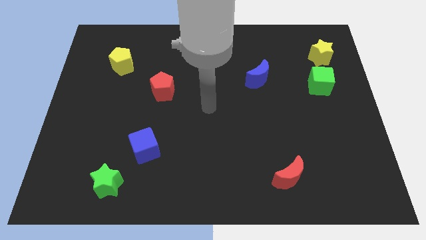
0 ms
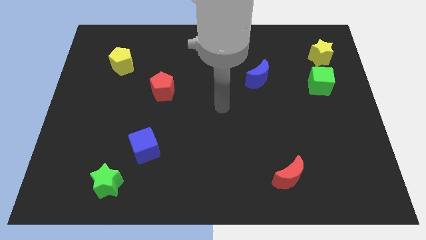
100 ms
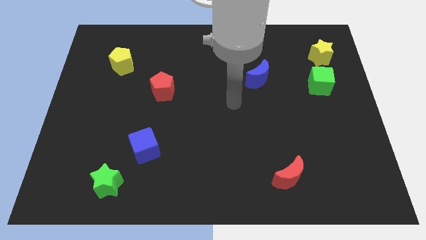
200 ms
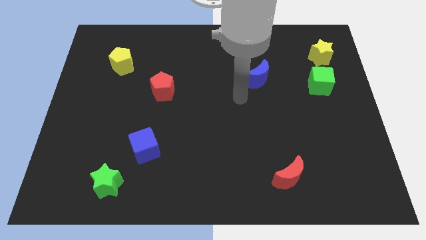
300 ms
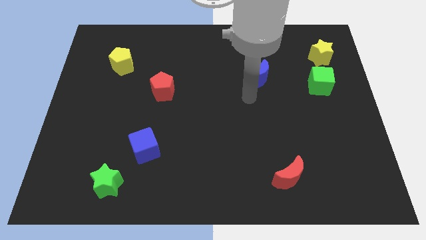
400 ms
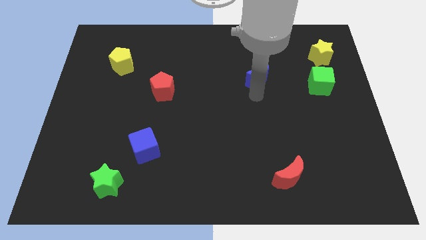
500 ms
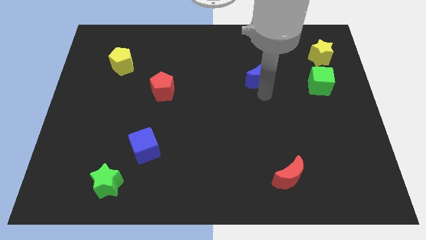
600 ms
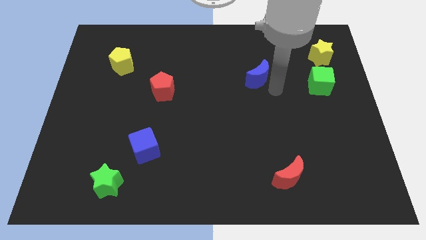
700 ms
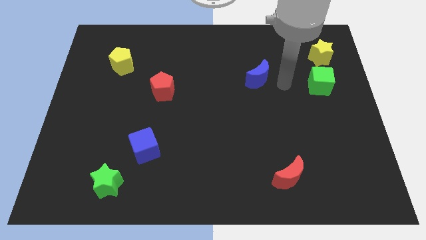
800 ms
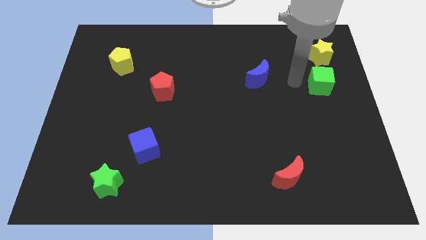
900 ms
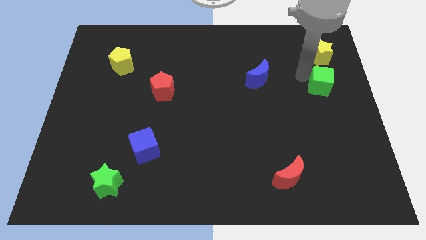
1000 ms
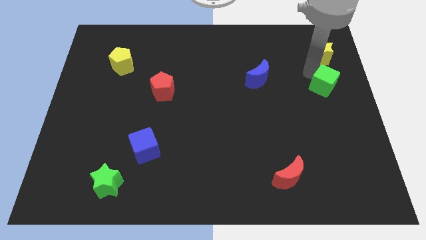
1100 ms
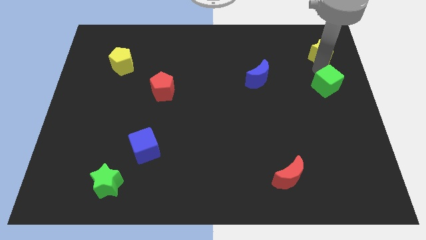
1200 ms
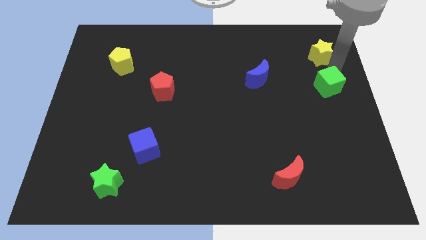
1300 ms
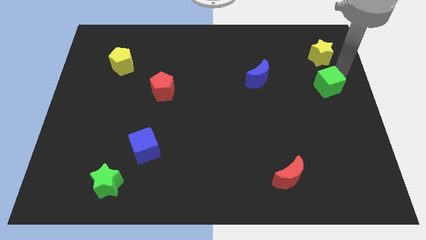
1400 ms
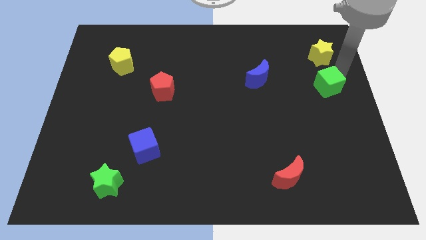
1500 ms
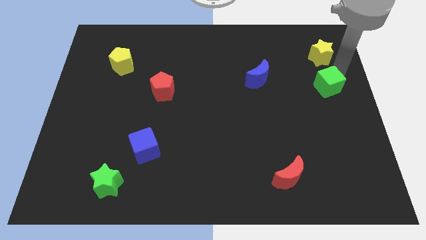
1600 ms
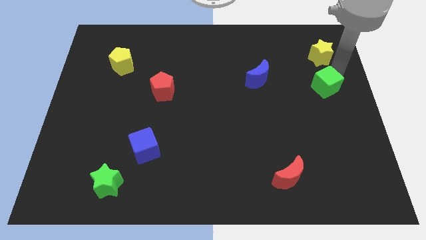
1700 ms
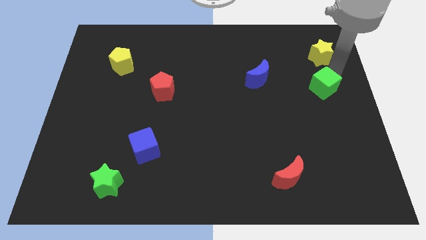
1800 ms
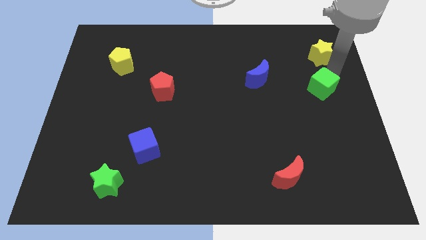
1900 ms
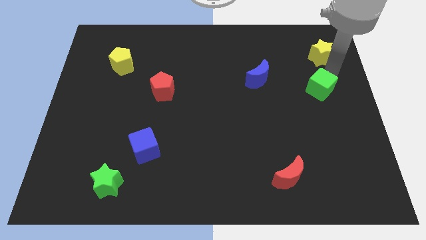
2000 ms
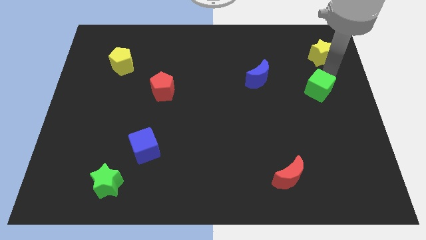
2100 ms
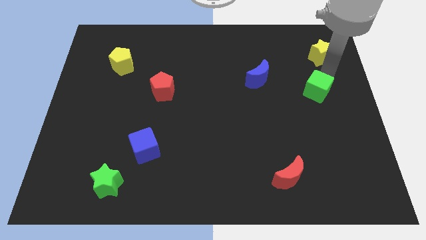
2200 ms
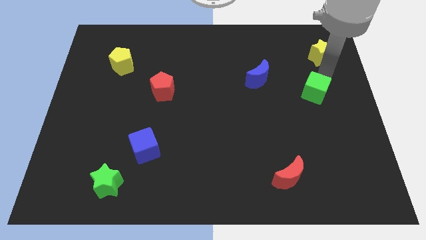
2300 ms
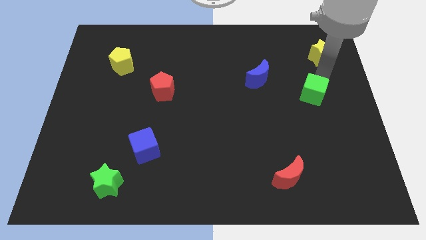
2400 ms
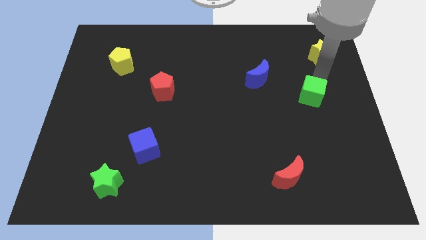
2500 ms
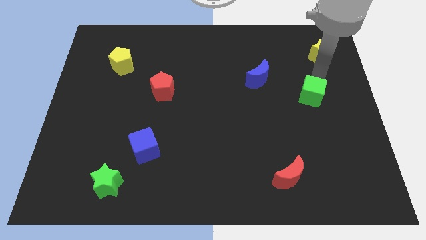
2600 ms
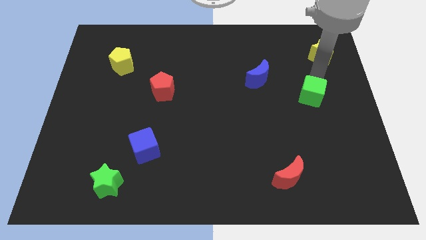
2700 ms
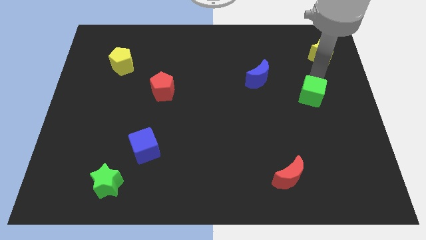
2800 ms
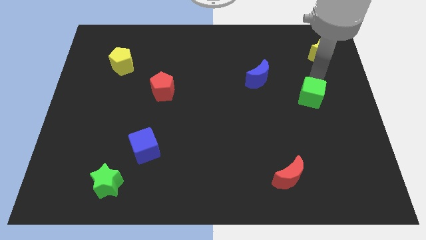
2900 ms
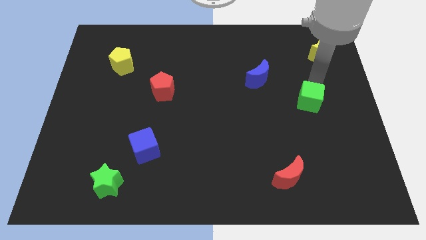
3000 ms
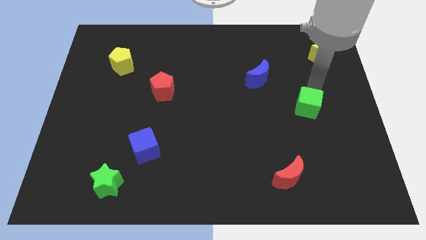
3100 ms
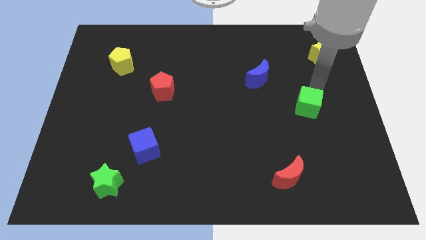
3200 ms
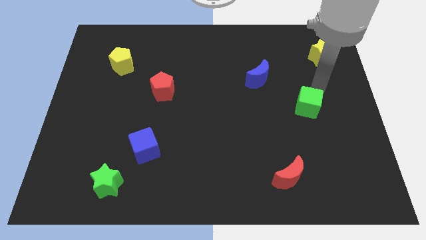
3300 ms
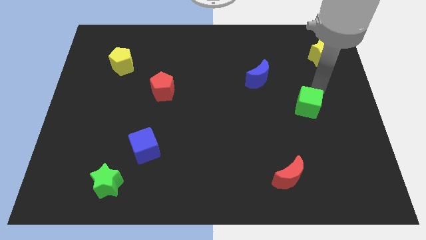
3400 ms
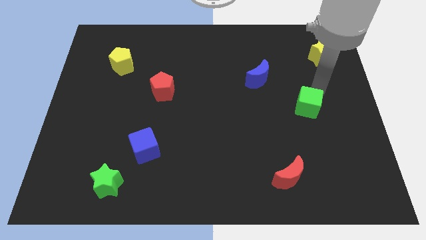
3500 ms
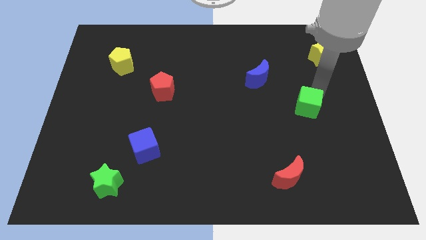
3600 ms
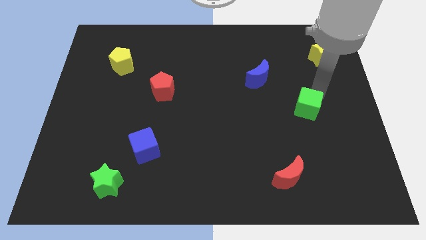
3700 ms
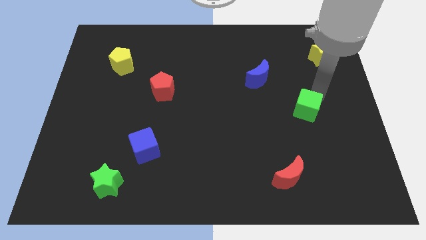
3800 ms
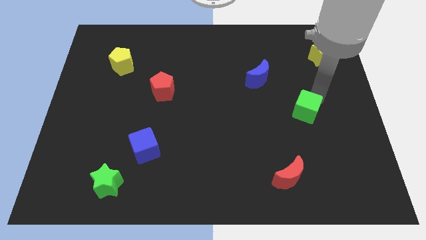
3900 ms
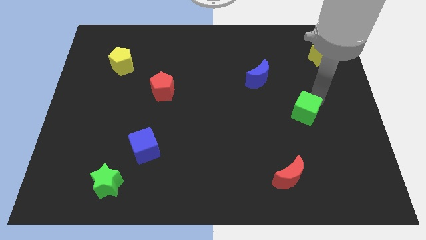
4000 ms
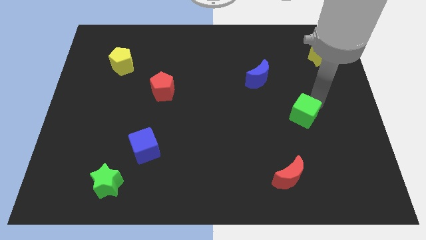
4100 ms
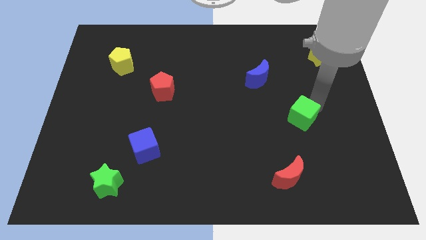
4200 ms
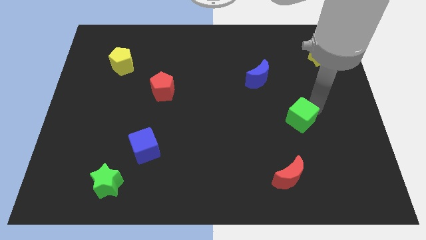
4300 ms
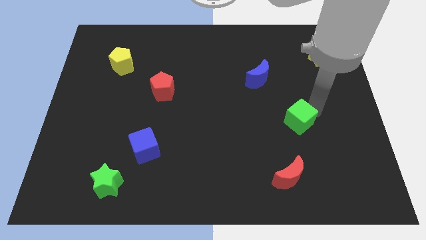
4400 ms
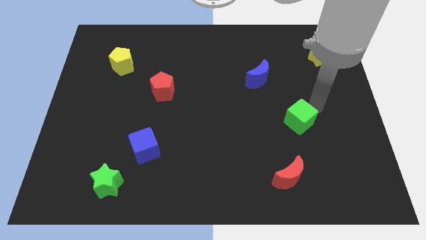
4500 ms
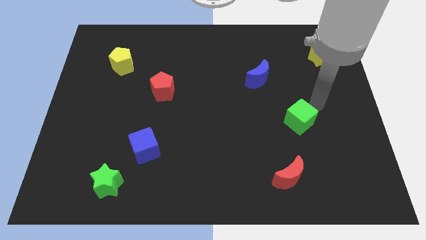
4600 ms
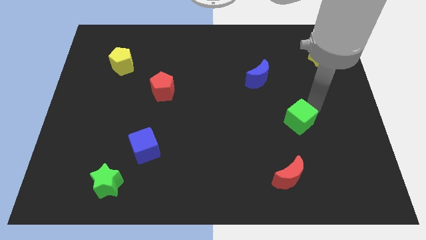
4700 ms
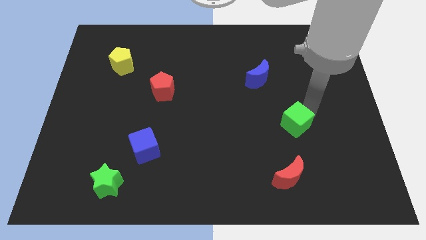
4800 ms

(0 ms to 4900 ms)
put the green cube to the top of the red moon

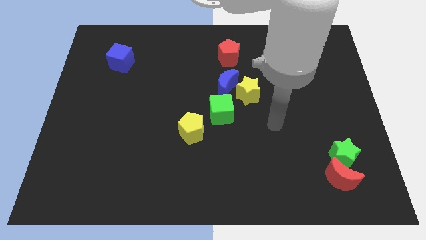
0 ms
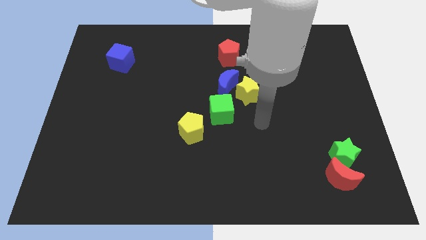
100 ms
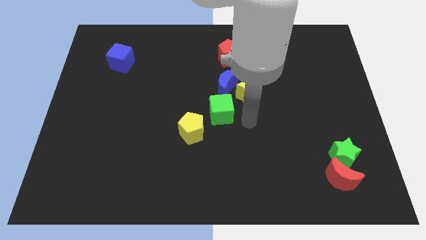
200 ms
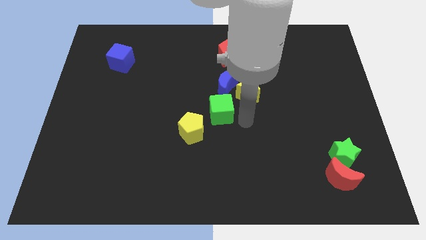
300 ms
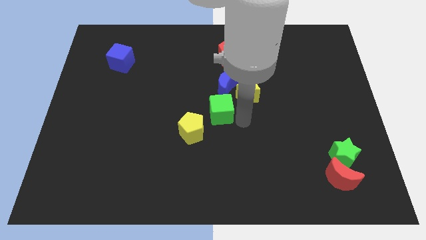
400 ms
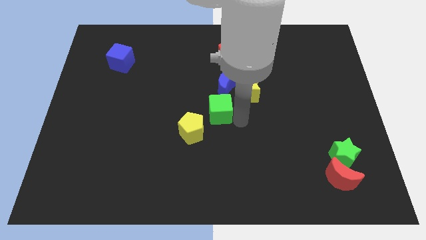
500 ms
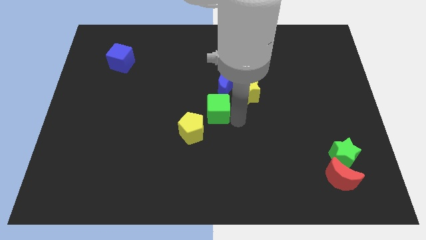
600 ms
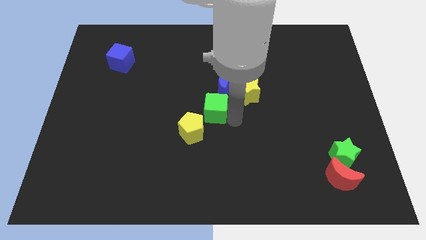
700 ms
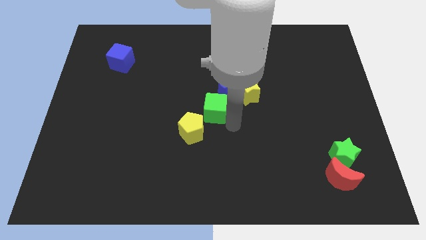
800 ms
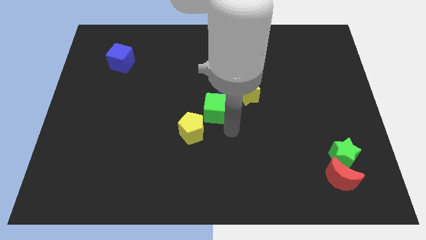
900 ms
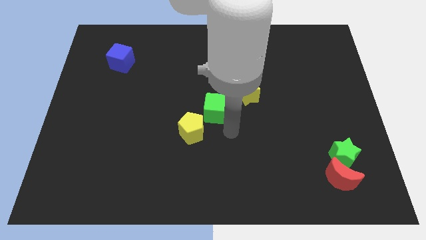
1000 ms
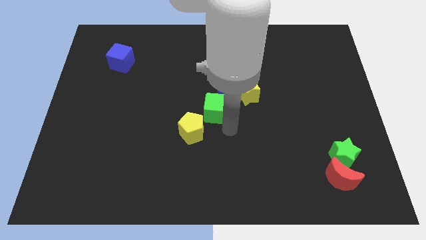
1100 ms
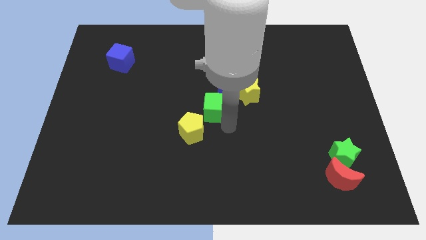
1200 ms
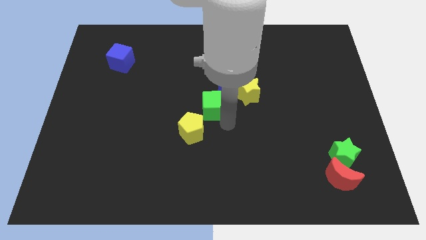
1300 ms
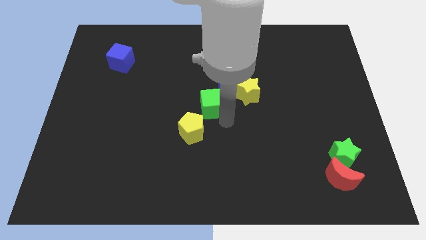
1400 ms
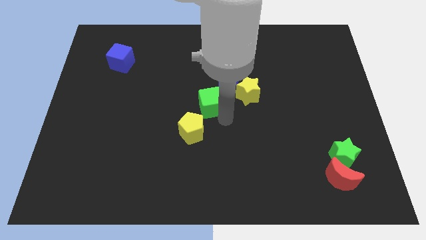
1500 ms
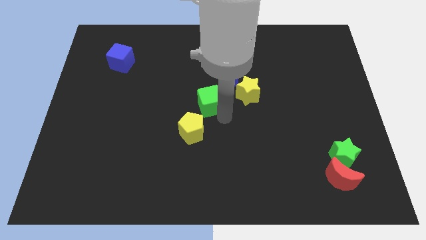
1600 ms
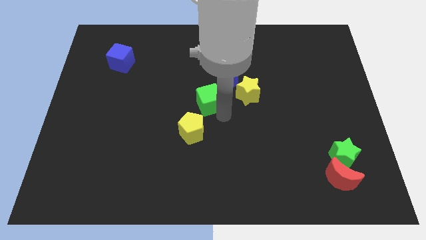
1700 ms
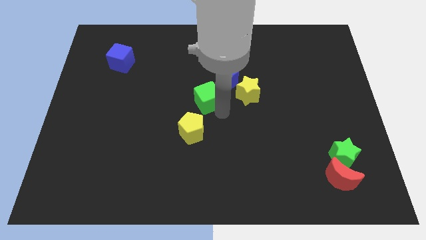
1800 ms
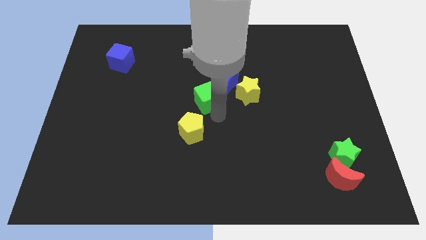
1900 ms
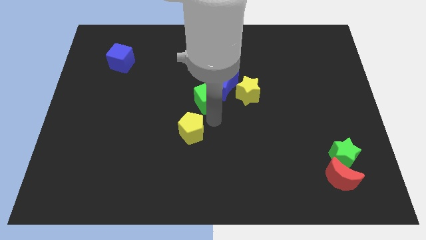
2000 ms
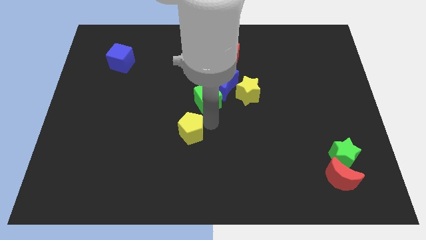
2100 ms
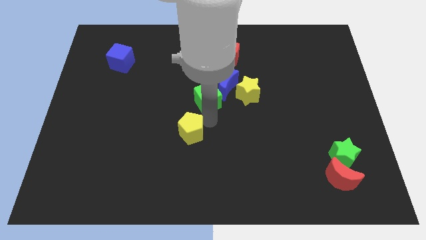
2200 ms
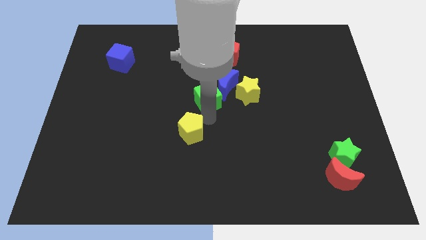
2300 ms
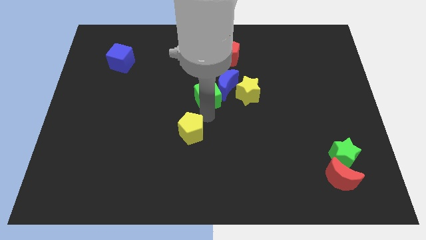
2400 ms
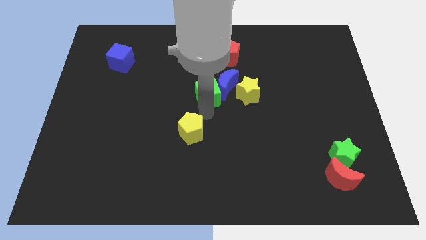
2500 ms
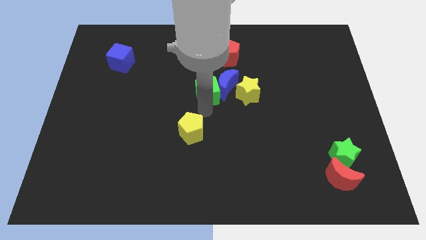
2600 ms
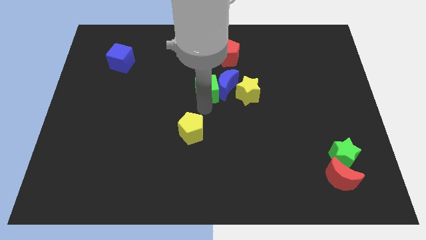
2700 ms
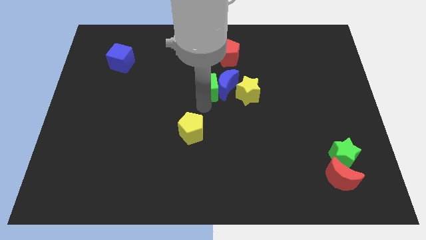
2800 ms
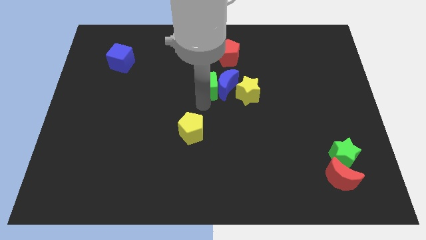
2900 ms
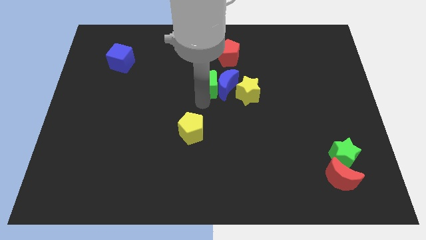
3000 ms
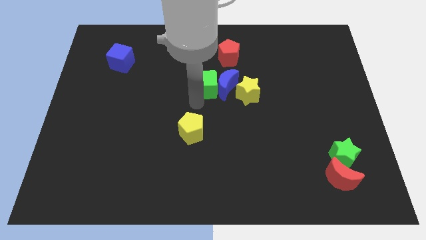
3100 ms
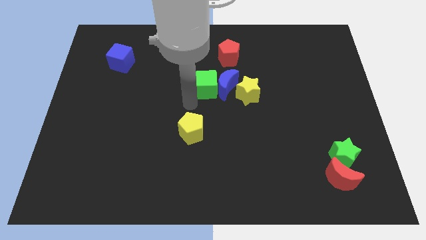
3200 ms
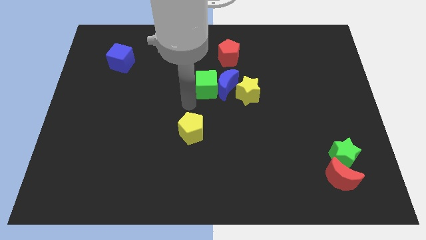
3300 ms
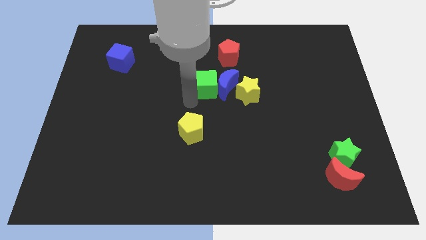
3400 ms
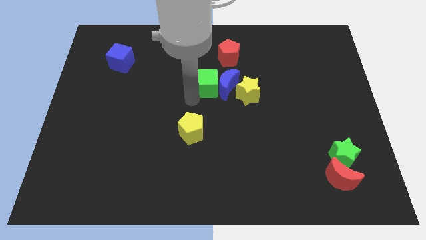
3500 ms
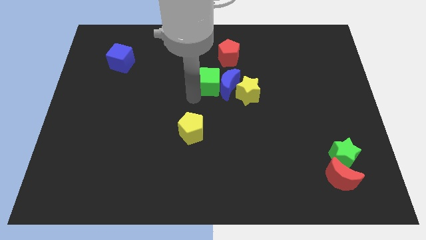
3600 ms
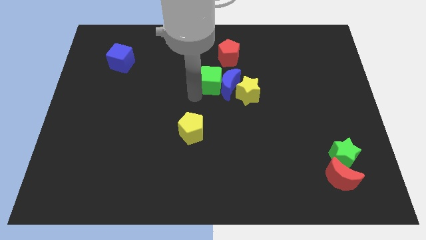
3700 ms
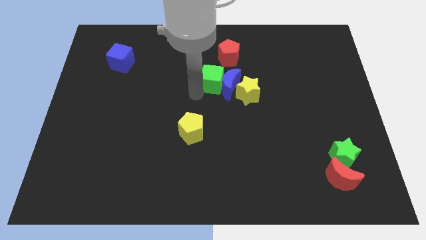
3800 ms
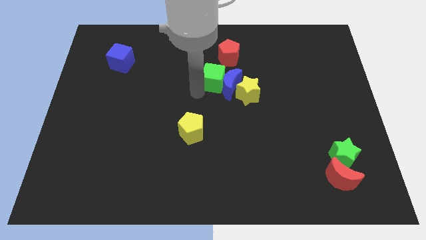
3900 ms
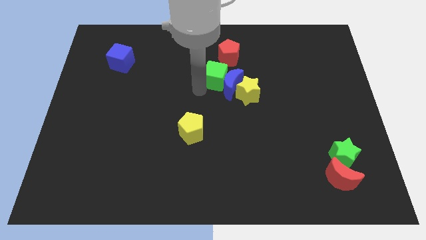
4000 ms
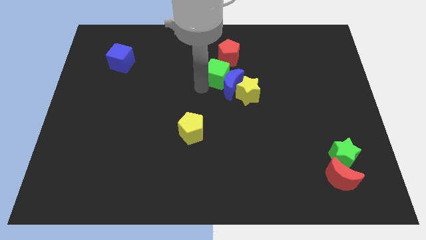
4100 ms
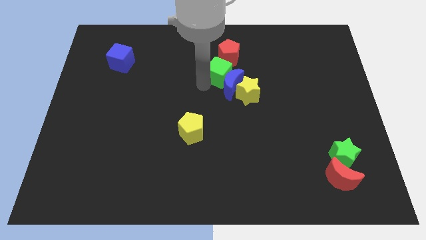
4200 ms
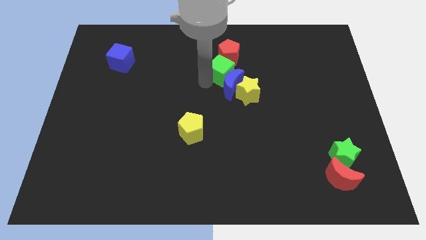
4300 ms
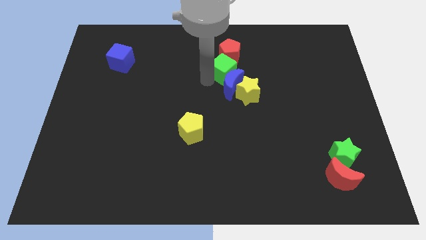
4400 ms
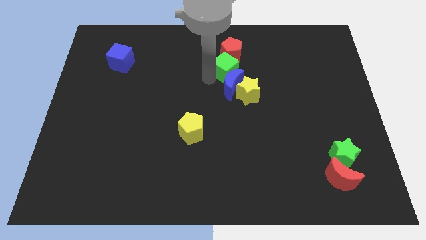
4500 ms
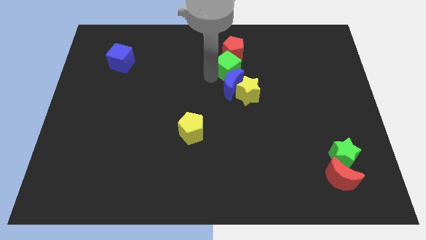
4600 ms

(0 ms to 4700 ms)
move the green cube above the yellow star
